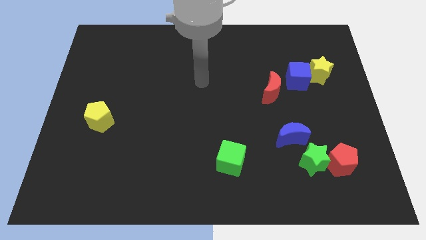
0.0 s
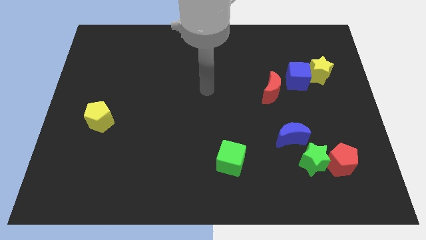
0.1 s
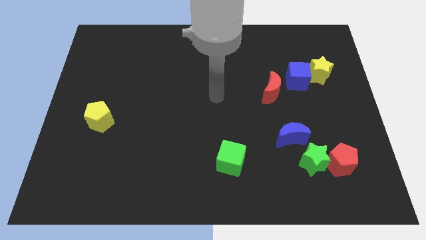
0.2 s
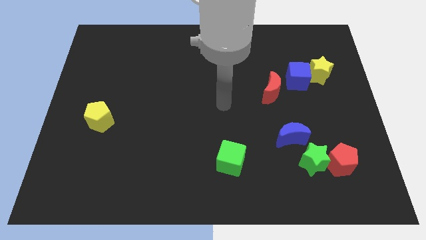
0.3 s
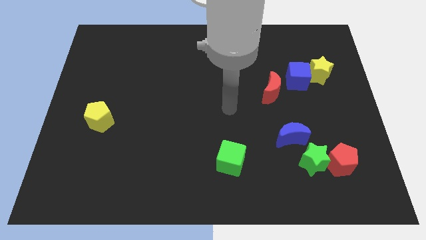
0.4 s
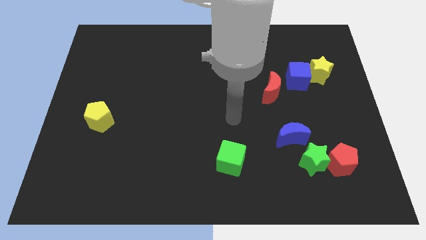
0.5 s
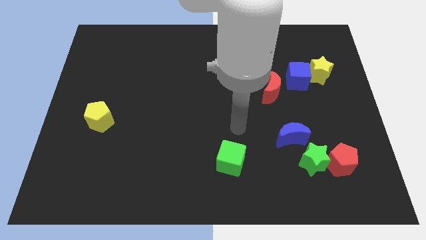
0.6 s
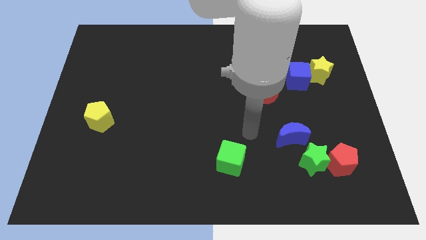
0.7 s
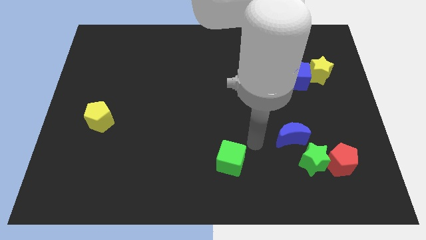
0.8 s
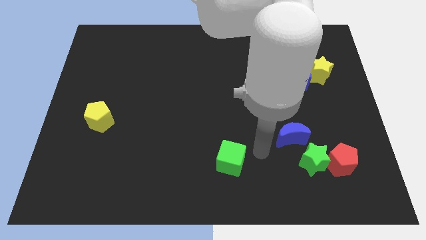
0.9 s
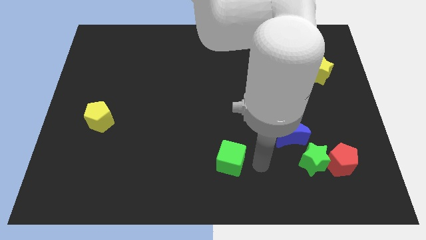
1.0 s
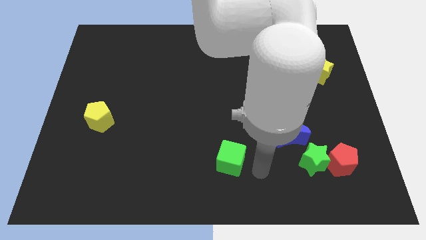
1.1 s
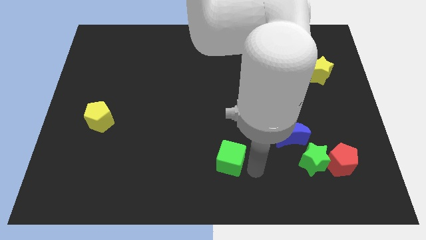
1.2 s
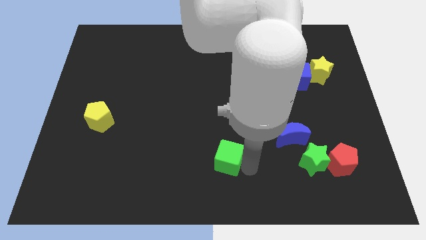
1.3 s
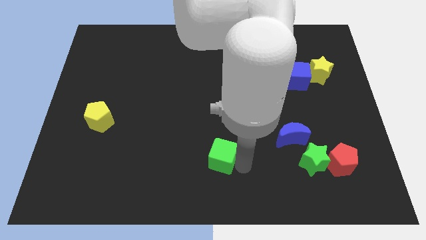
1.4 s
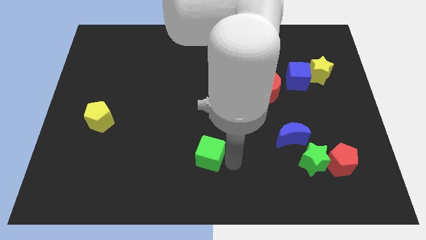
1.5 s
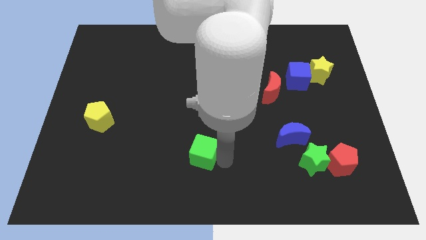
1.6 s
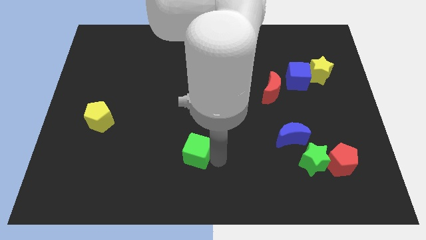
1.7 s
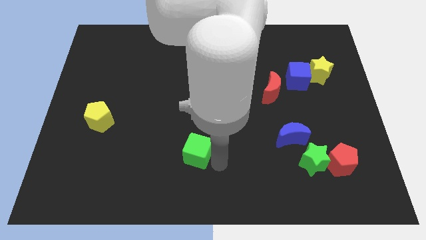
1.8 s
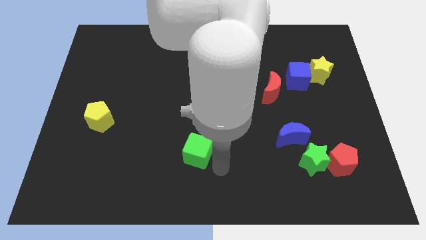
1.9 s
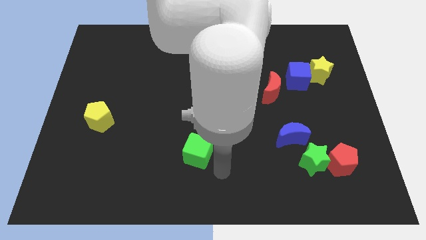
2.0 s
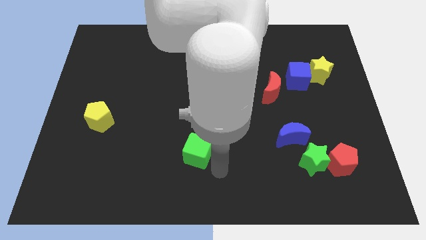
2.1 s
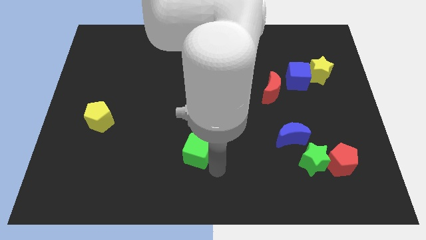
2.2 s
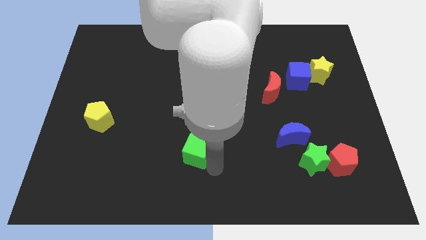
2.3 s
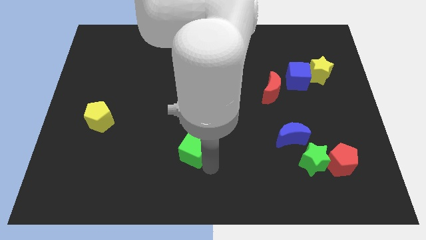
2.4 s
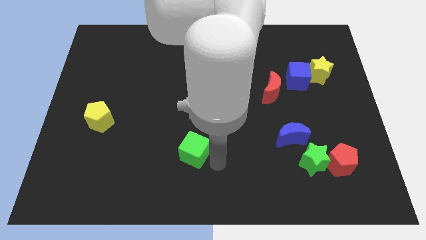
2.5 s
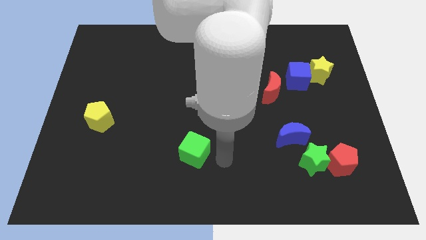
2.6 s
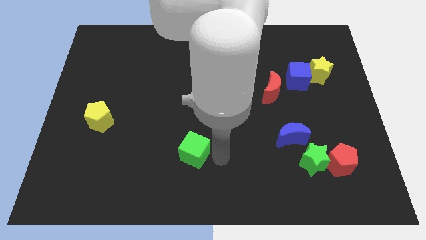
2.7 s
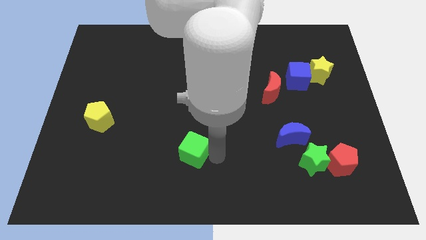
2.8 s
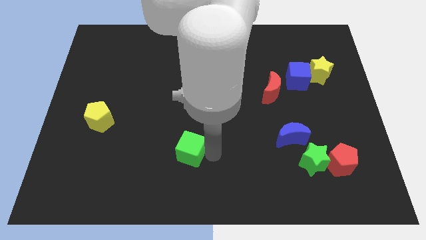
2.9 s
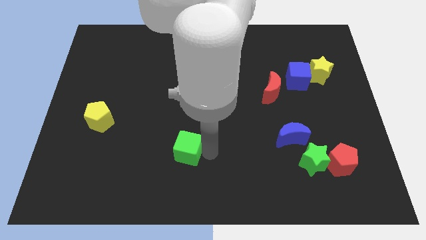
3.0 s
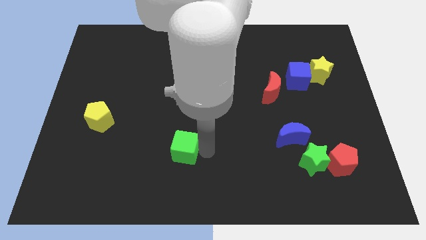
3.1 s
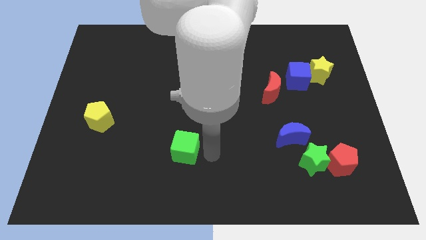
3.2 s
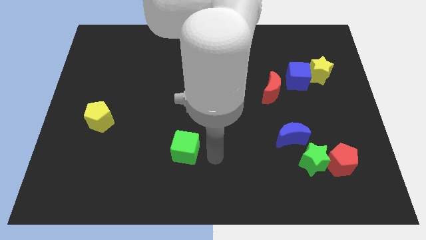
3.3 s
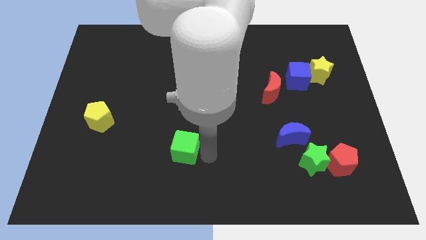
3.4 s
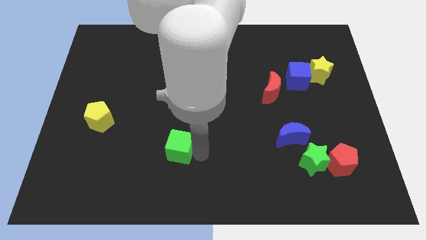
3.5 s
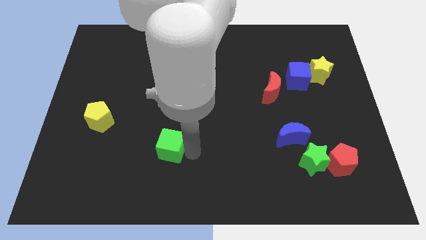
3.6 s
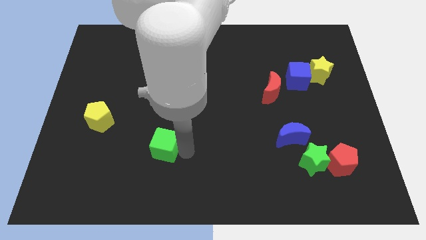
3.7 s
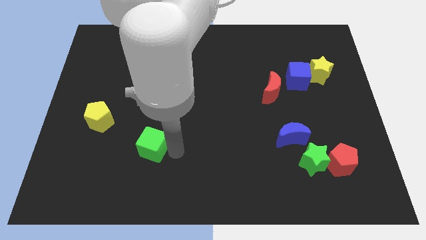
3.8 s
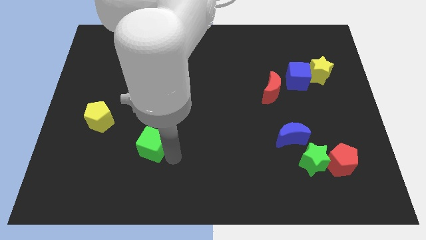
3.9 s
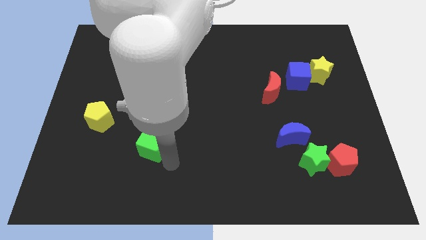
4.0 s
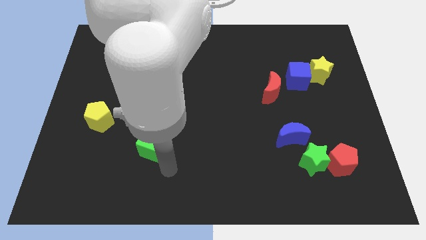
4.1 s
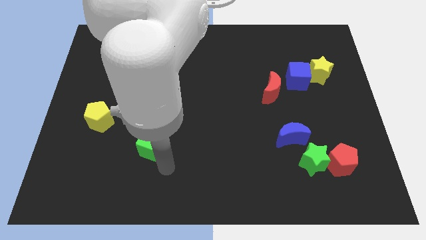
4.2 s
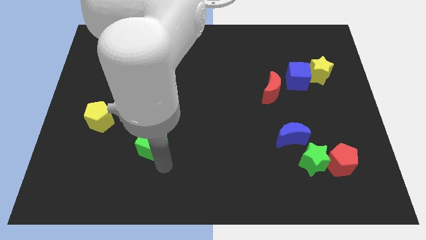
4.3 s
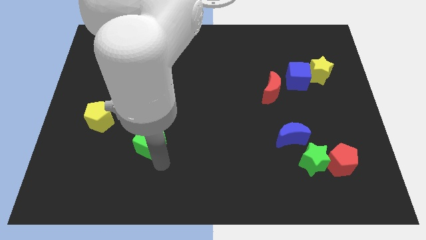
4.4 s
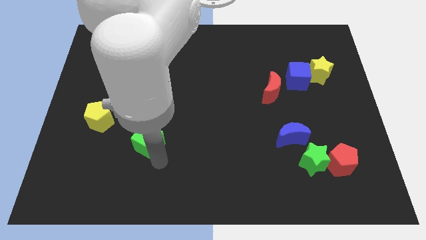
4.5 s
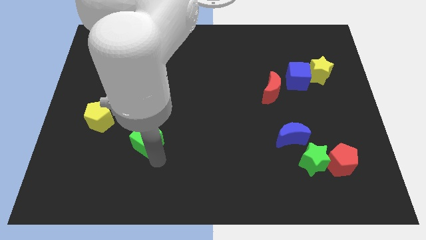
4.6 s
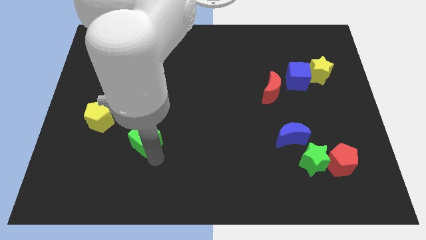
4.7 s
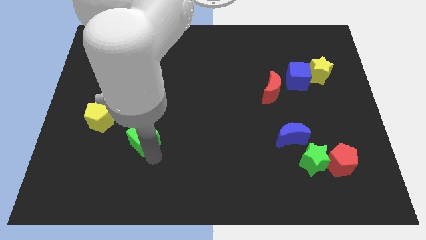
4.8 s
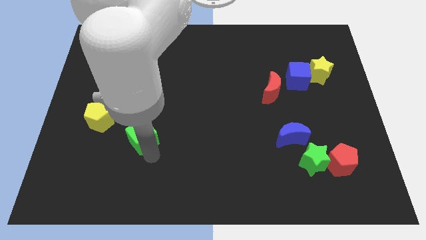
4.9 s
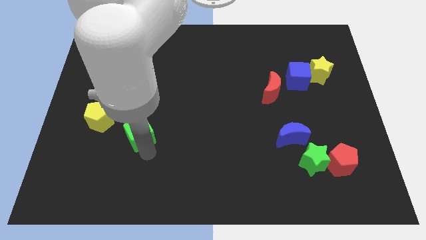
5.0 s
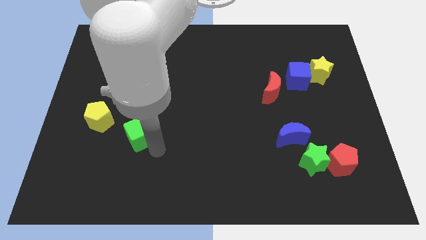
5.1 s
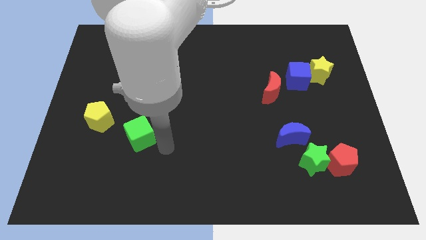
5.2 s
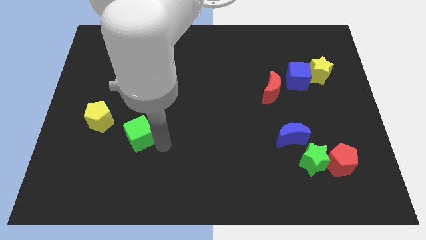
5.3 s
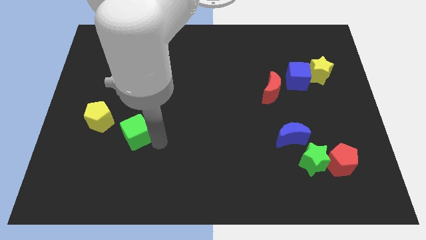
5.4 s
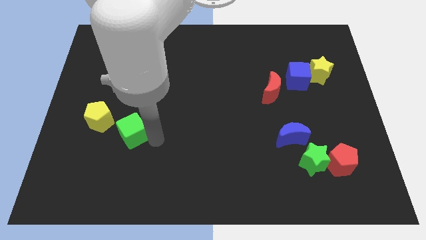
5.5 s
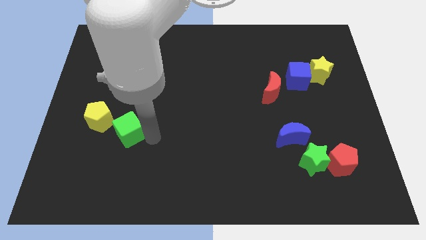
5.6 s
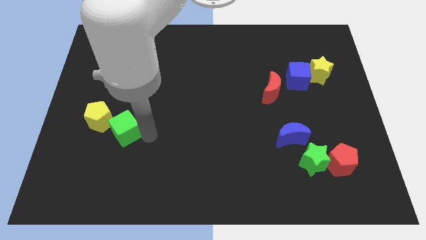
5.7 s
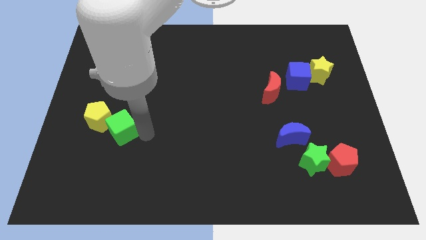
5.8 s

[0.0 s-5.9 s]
push the green cube next to the yellow pentagon

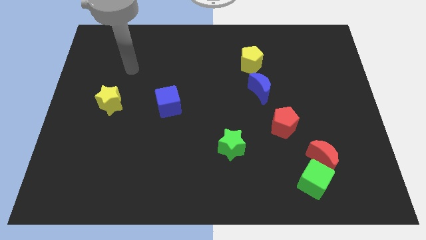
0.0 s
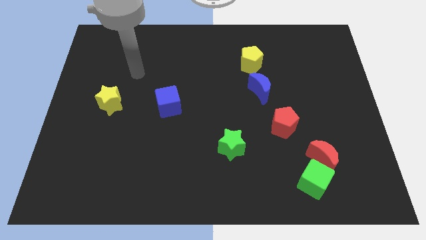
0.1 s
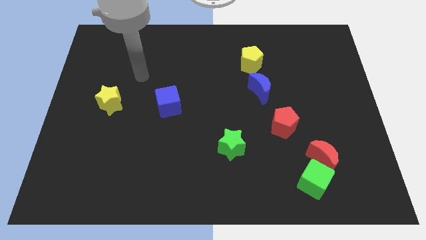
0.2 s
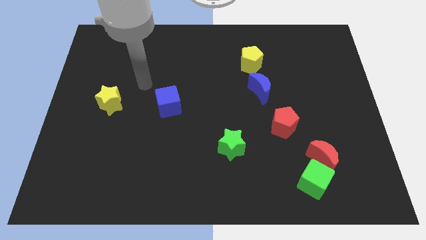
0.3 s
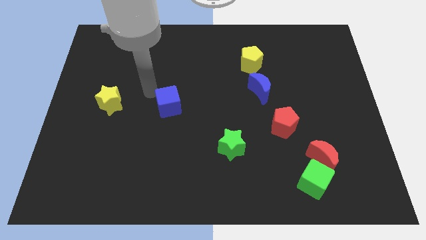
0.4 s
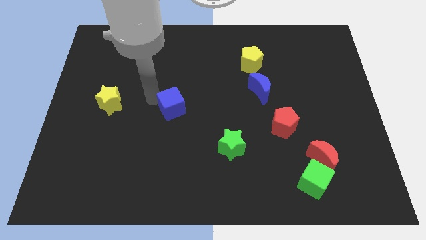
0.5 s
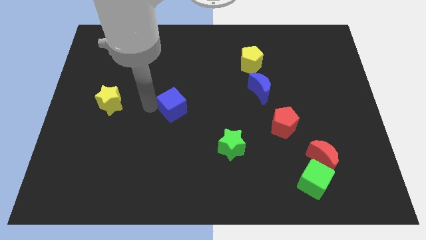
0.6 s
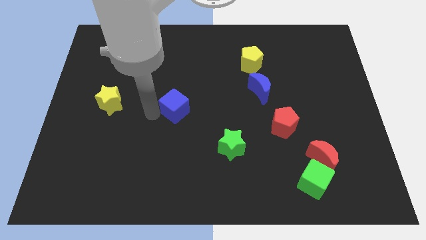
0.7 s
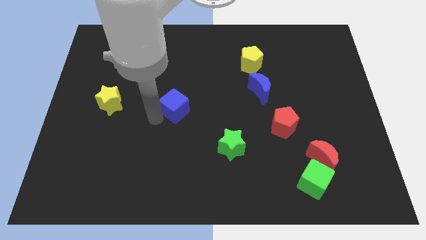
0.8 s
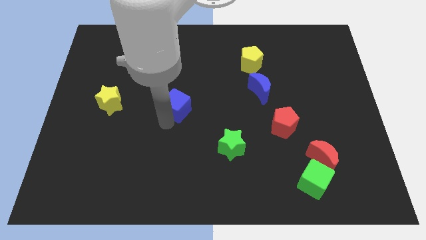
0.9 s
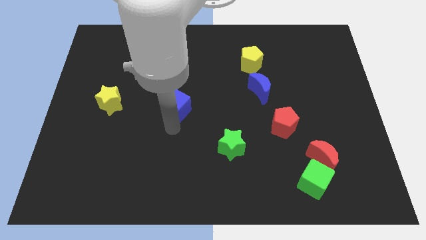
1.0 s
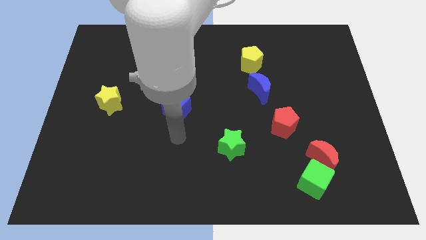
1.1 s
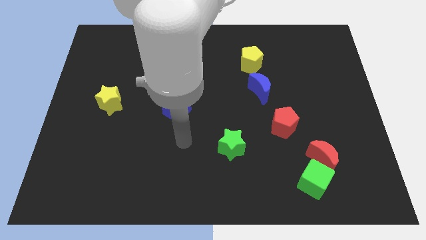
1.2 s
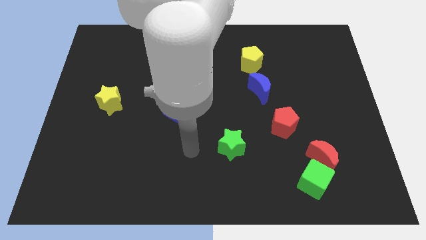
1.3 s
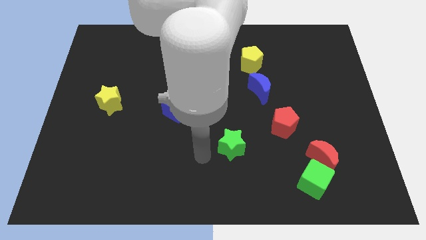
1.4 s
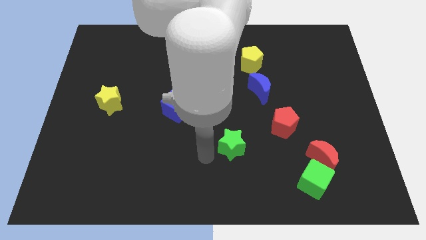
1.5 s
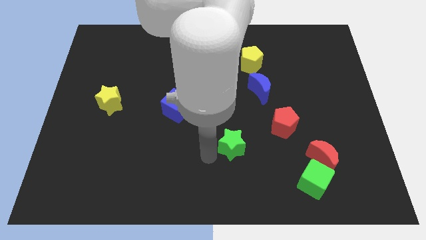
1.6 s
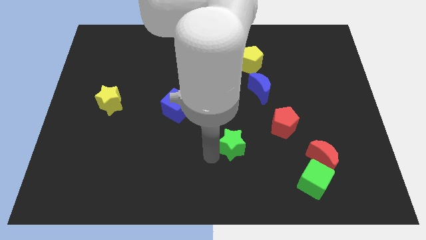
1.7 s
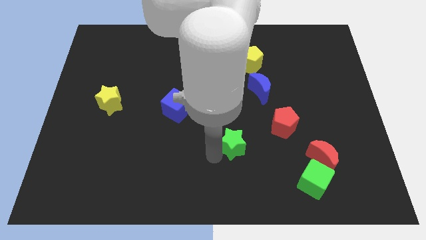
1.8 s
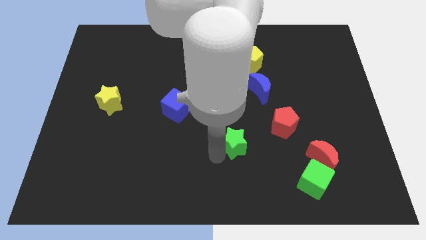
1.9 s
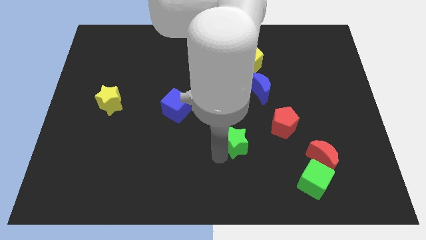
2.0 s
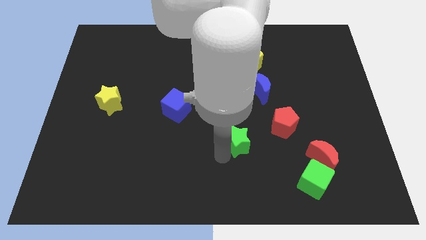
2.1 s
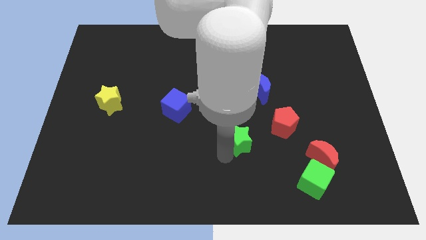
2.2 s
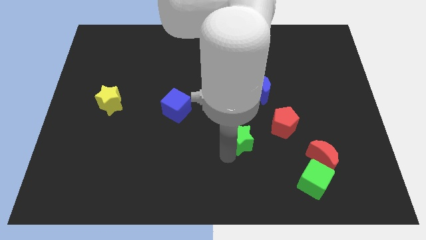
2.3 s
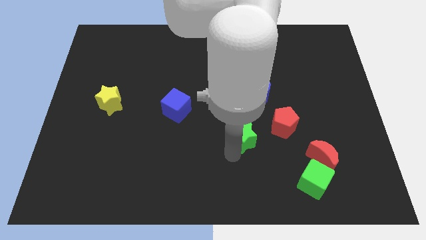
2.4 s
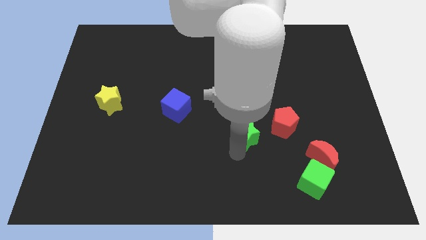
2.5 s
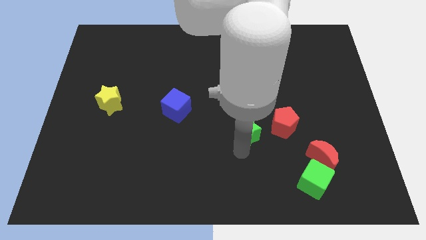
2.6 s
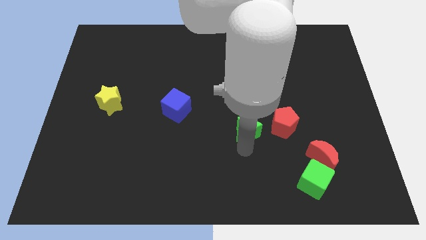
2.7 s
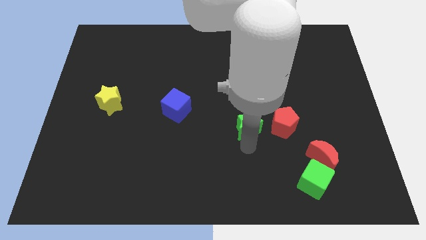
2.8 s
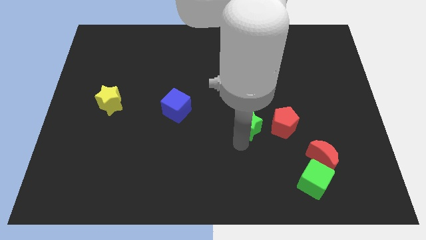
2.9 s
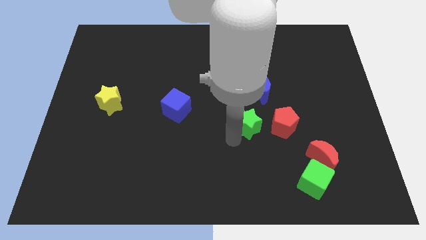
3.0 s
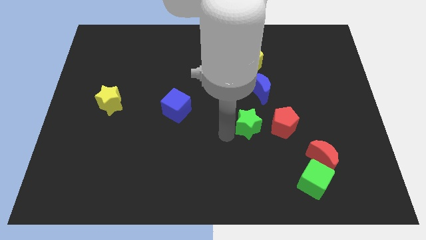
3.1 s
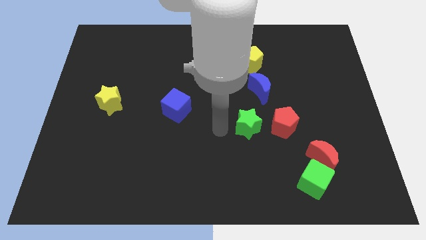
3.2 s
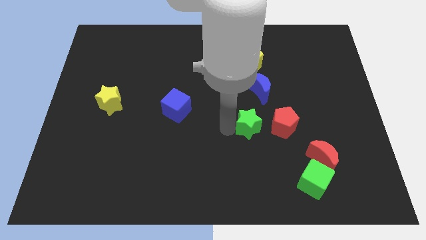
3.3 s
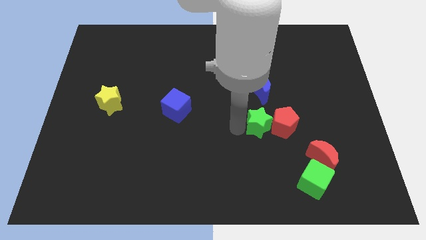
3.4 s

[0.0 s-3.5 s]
move the green star close to the red pentagon
